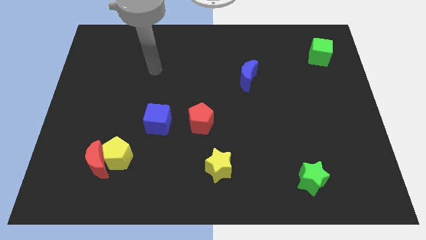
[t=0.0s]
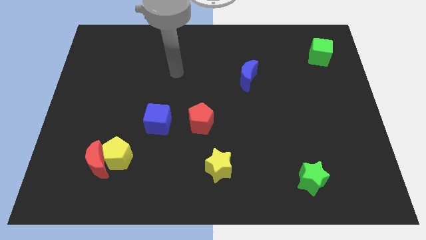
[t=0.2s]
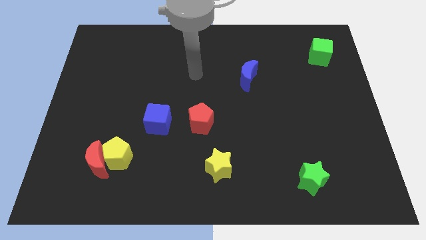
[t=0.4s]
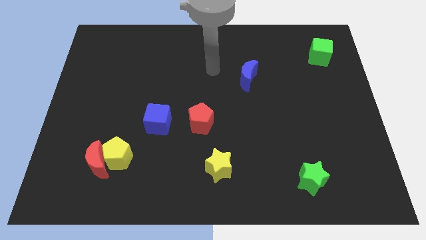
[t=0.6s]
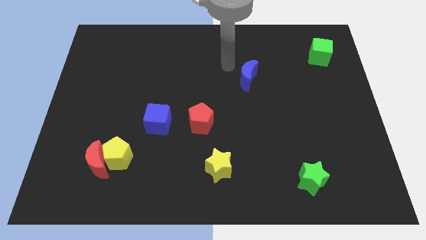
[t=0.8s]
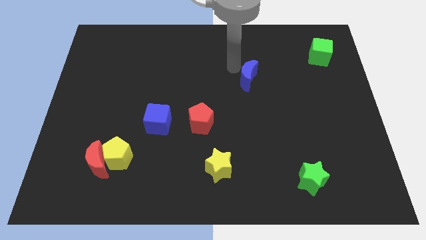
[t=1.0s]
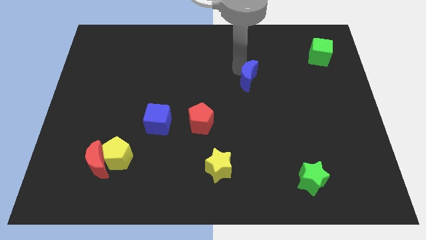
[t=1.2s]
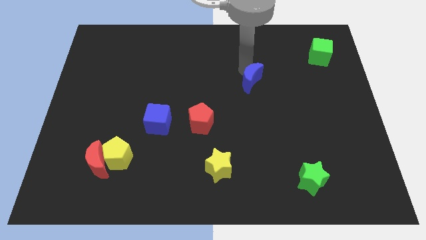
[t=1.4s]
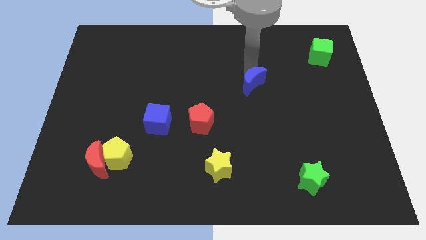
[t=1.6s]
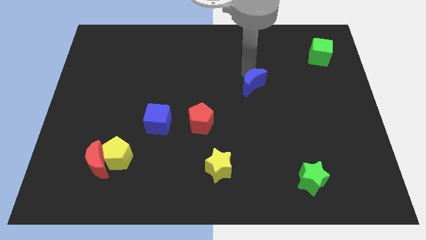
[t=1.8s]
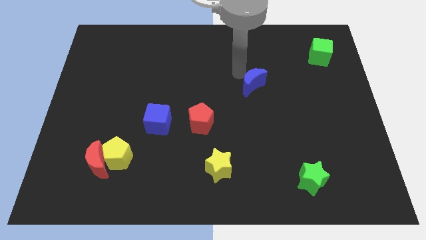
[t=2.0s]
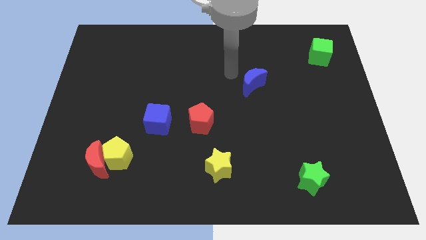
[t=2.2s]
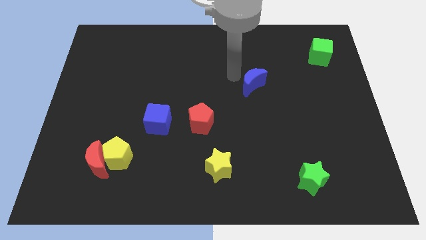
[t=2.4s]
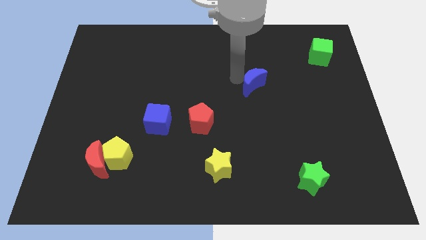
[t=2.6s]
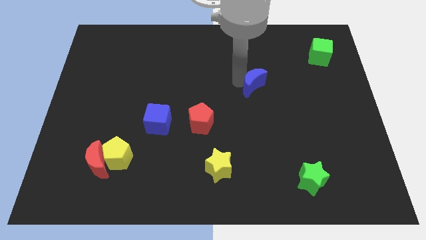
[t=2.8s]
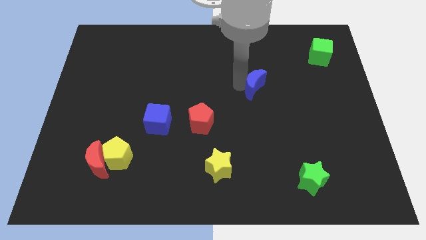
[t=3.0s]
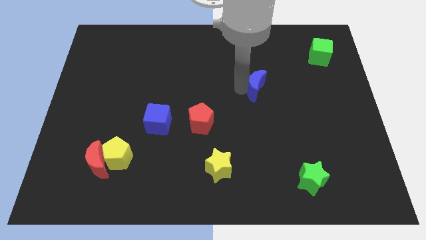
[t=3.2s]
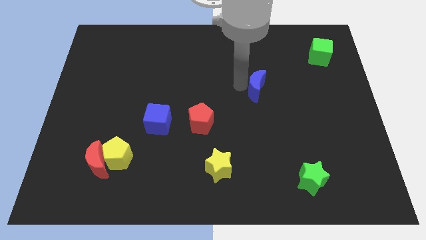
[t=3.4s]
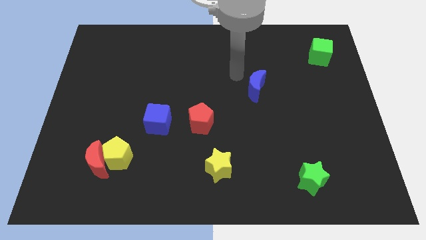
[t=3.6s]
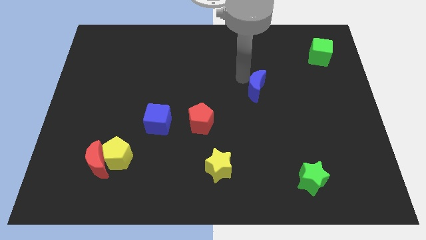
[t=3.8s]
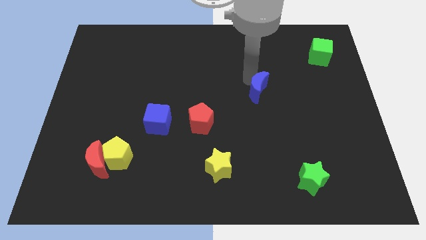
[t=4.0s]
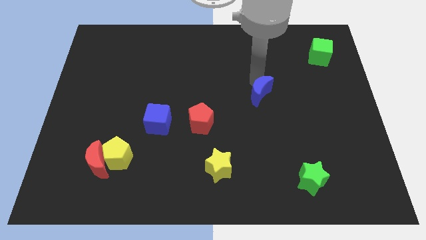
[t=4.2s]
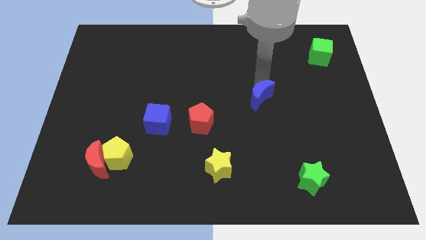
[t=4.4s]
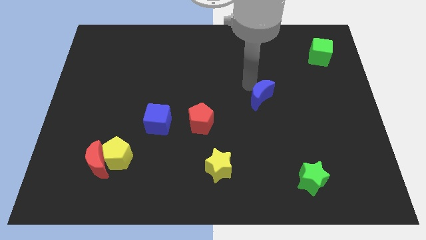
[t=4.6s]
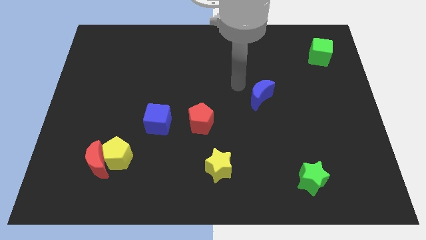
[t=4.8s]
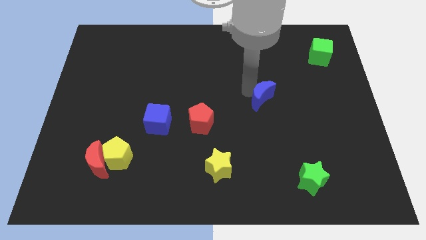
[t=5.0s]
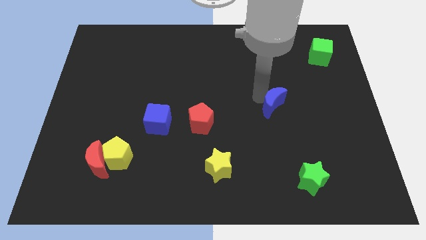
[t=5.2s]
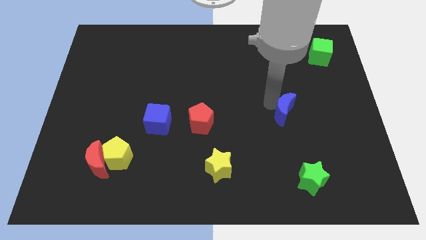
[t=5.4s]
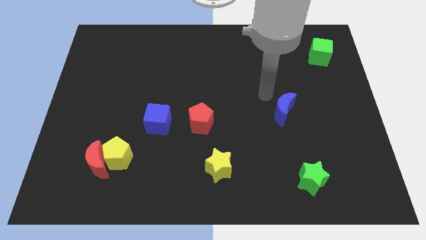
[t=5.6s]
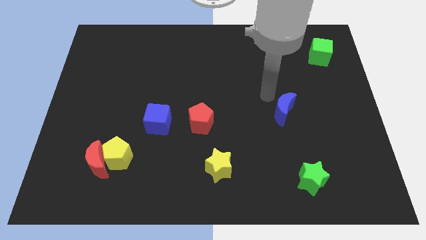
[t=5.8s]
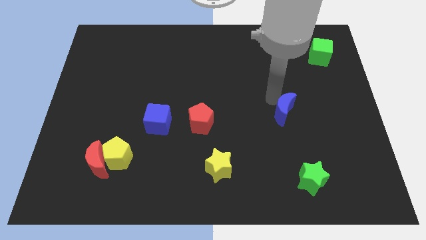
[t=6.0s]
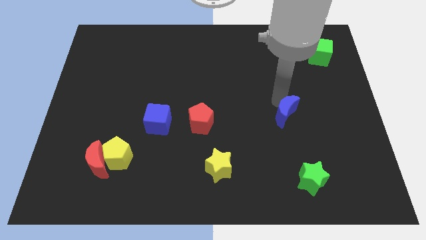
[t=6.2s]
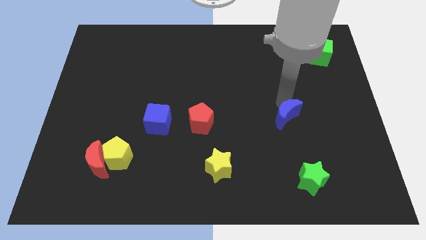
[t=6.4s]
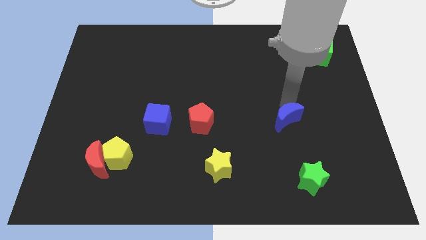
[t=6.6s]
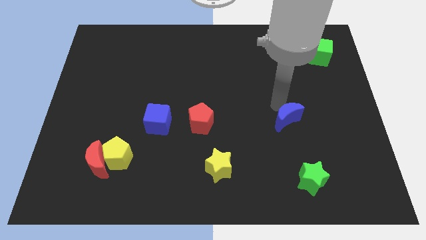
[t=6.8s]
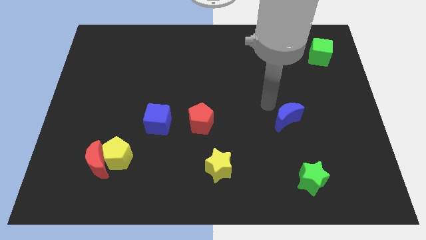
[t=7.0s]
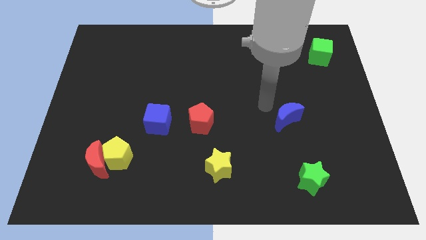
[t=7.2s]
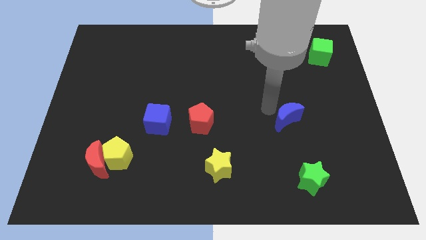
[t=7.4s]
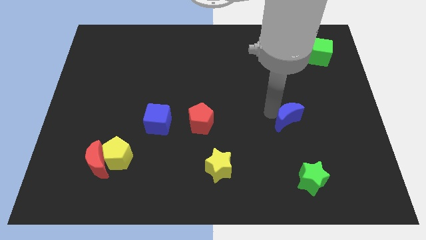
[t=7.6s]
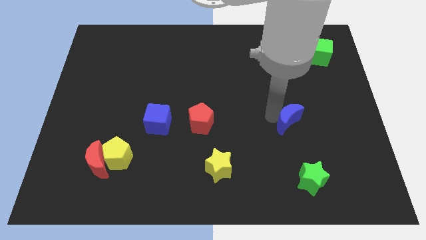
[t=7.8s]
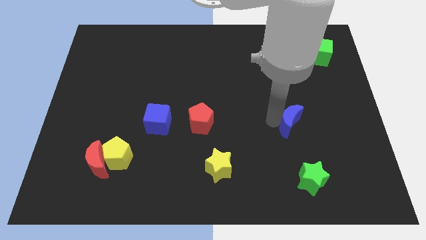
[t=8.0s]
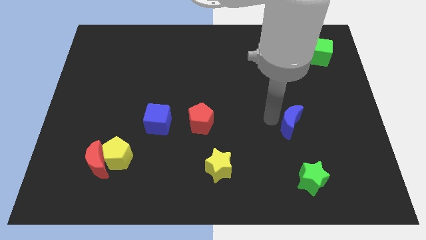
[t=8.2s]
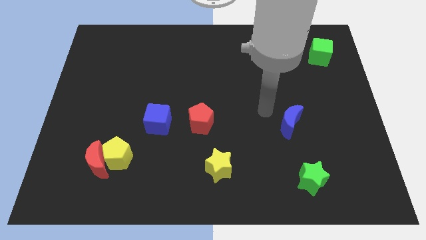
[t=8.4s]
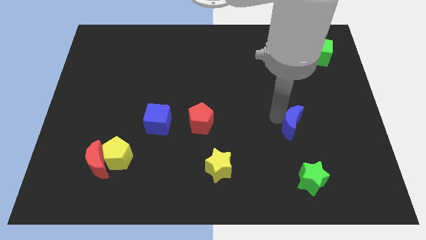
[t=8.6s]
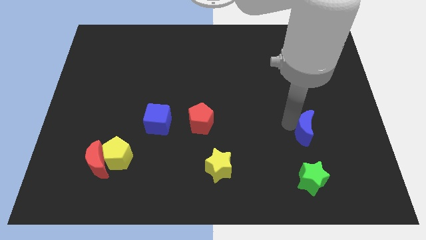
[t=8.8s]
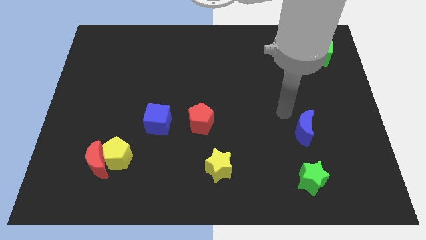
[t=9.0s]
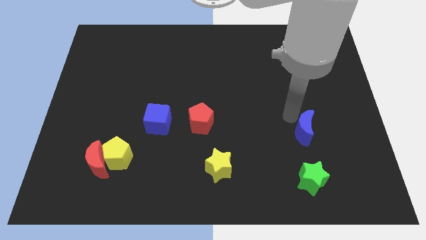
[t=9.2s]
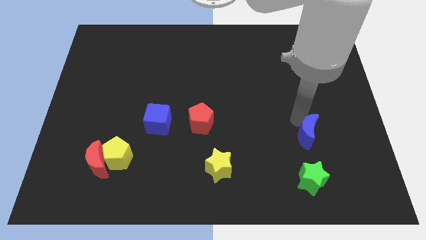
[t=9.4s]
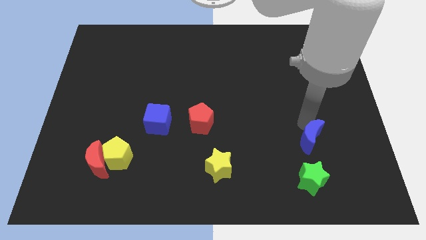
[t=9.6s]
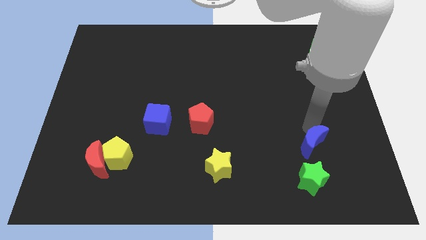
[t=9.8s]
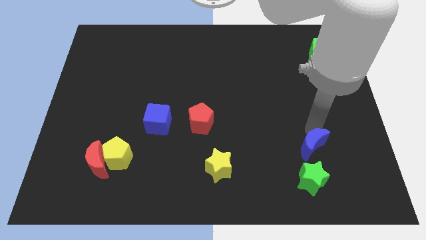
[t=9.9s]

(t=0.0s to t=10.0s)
slide the blue moon to the top right side of the green star

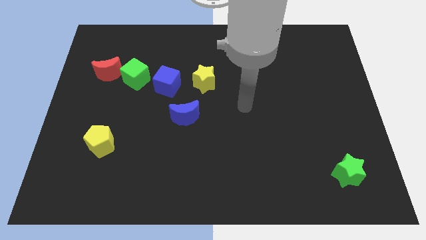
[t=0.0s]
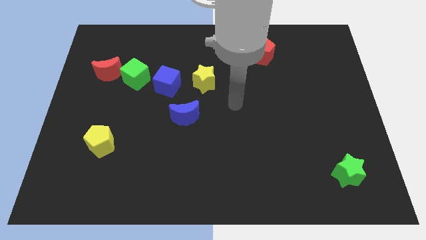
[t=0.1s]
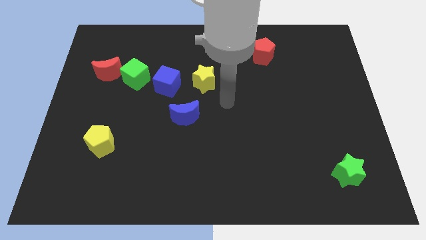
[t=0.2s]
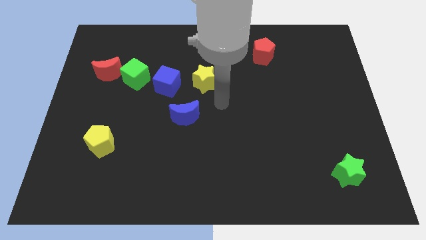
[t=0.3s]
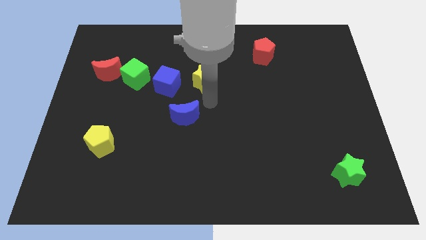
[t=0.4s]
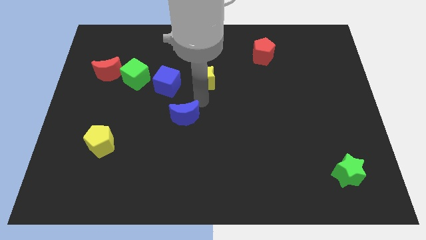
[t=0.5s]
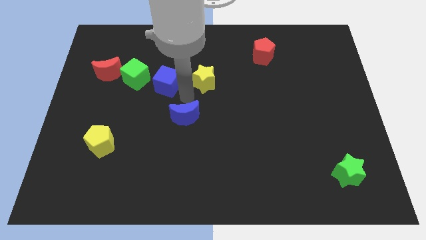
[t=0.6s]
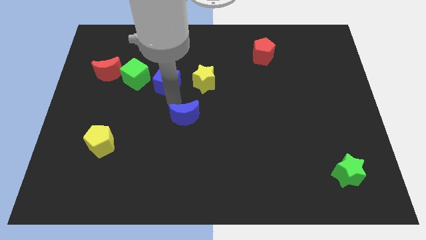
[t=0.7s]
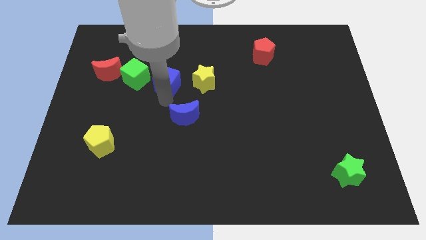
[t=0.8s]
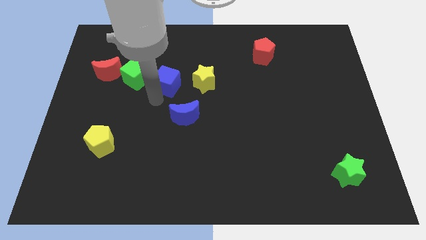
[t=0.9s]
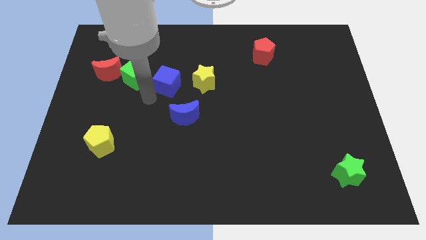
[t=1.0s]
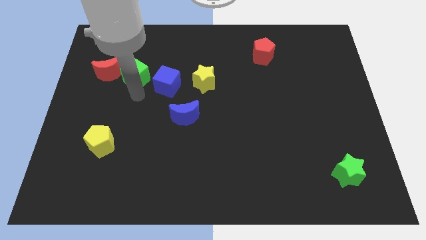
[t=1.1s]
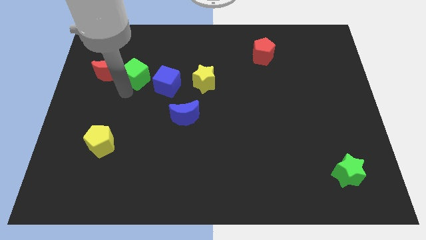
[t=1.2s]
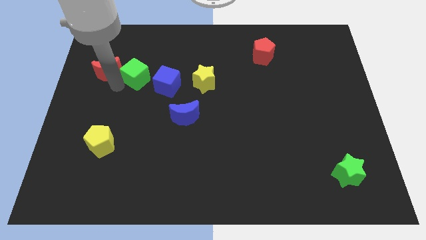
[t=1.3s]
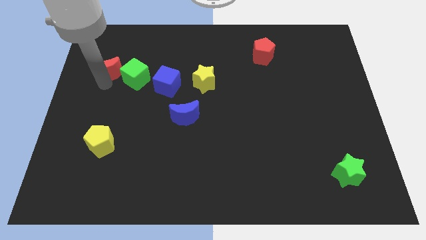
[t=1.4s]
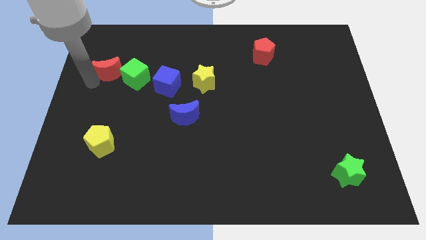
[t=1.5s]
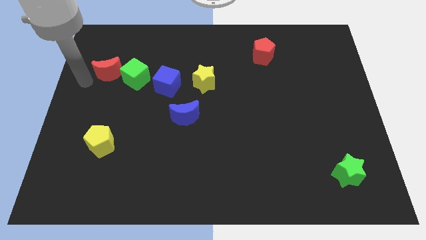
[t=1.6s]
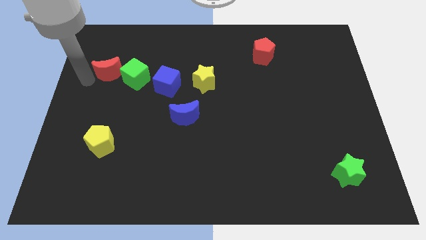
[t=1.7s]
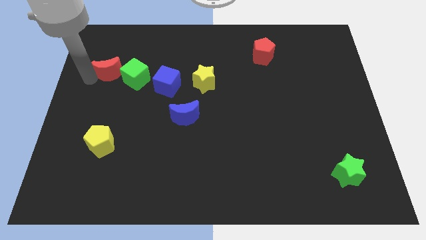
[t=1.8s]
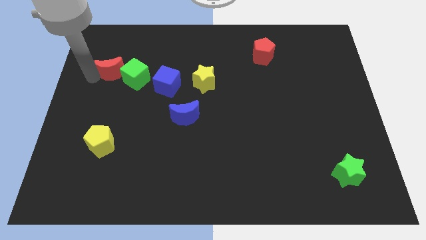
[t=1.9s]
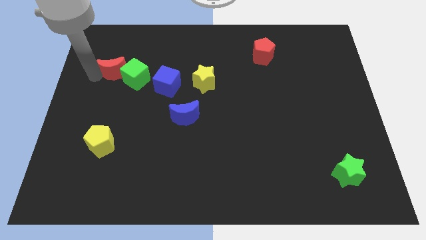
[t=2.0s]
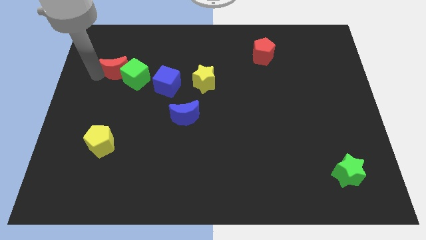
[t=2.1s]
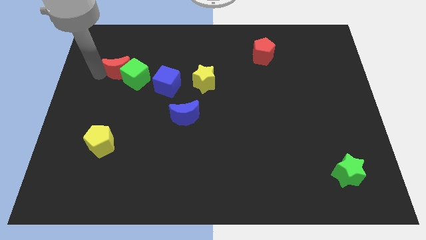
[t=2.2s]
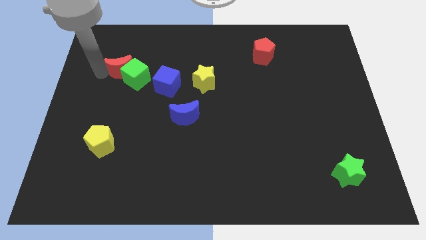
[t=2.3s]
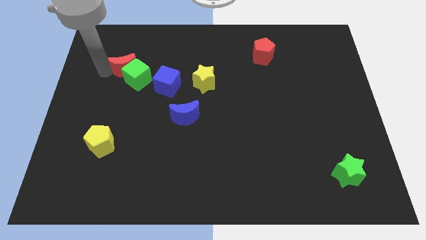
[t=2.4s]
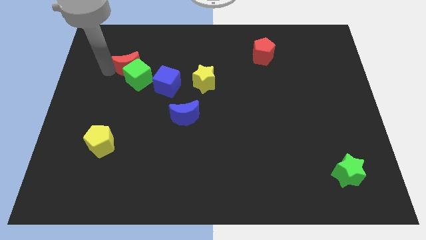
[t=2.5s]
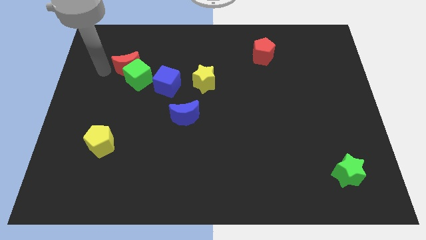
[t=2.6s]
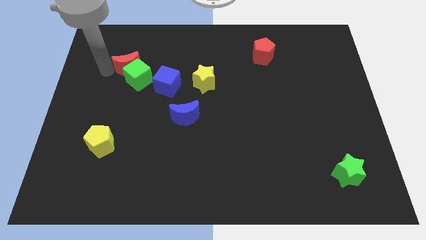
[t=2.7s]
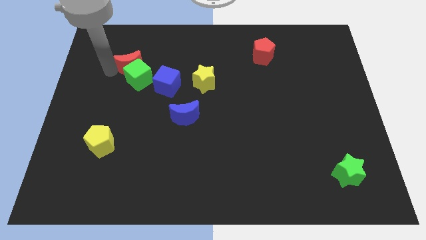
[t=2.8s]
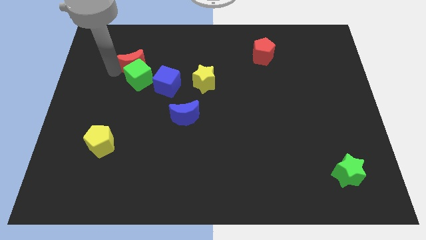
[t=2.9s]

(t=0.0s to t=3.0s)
slide the red moon diagonally up and to the right of the green cube
